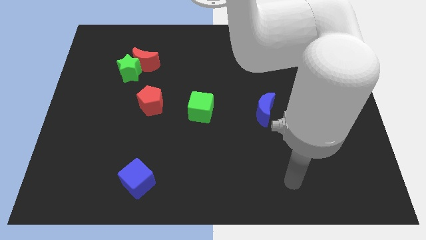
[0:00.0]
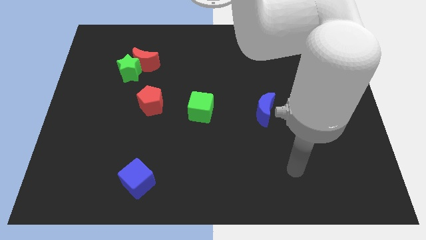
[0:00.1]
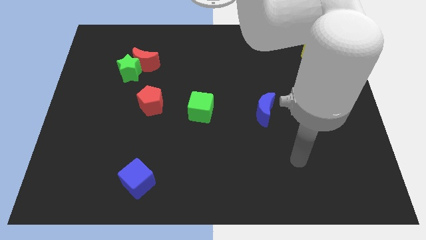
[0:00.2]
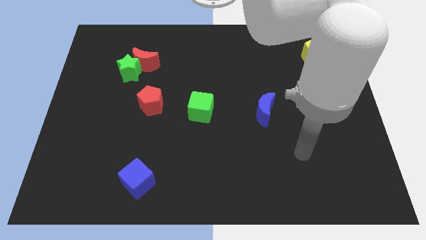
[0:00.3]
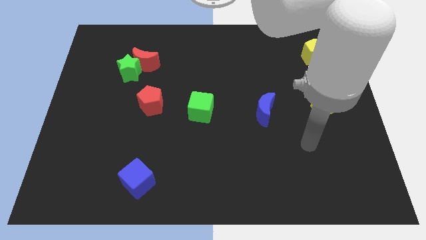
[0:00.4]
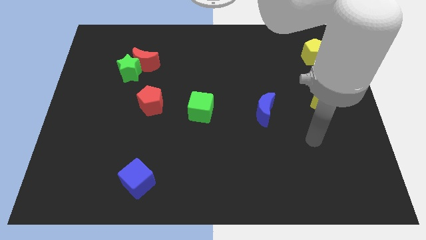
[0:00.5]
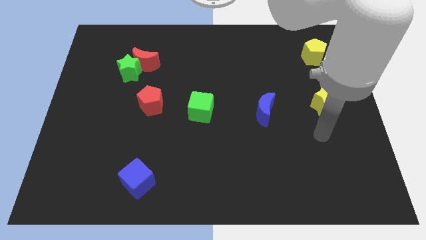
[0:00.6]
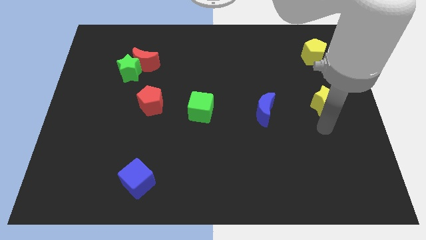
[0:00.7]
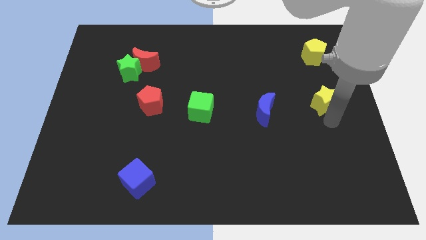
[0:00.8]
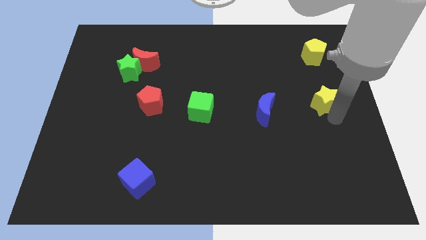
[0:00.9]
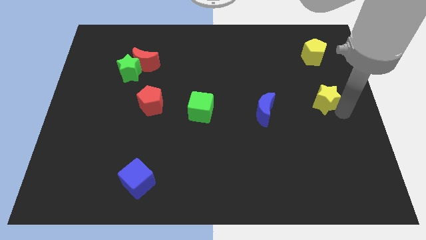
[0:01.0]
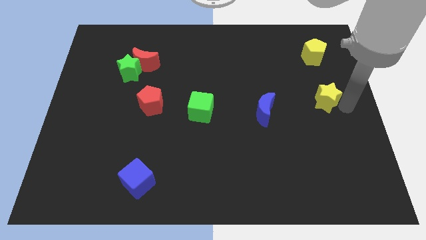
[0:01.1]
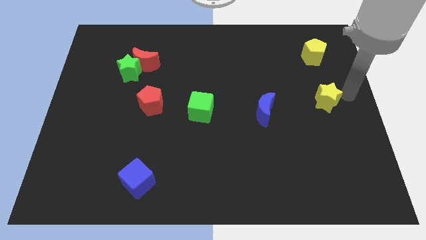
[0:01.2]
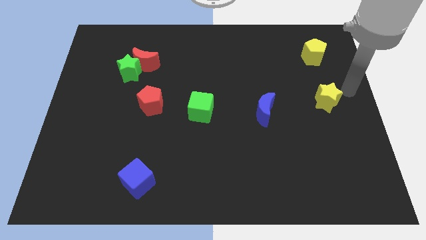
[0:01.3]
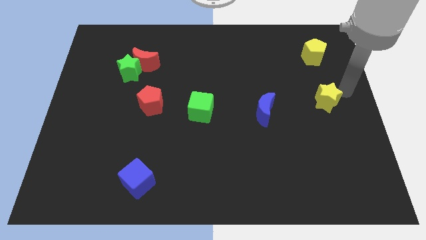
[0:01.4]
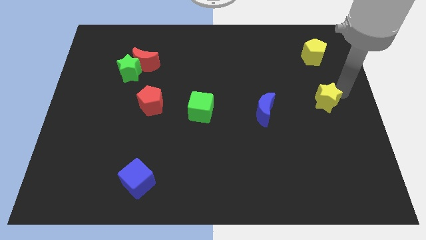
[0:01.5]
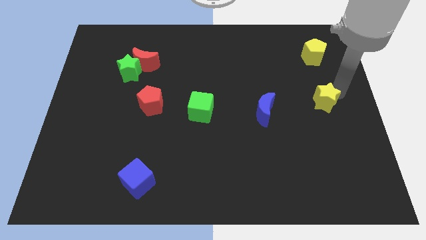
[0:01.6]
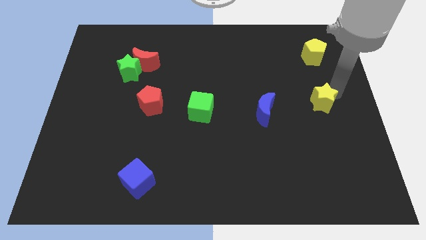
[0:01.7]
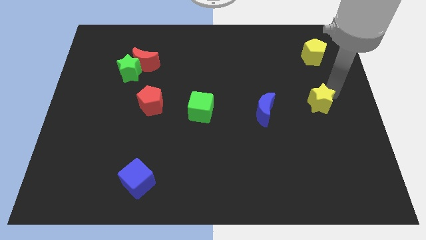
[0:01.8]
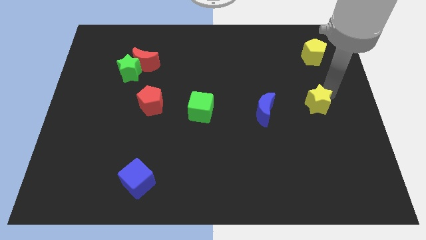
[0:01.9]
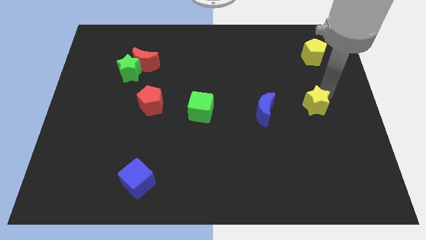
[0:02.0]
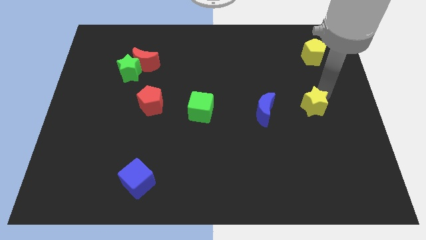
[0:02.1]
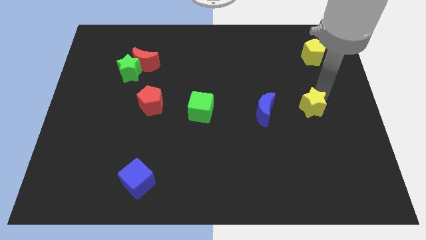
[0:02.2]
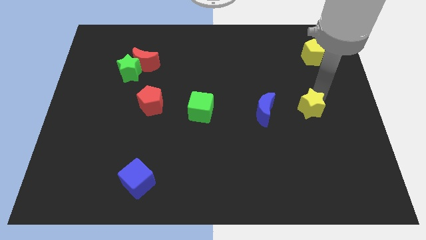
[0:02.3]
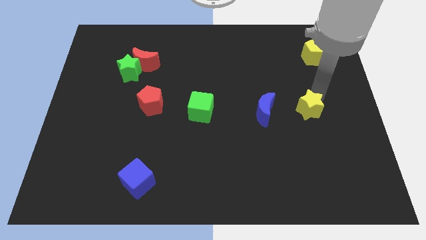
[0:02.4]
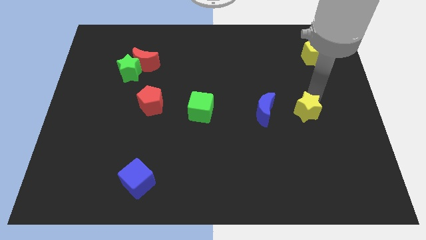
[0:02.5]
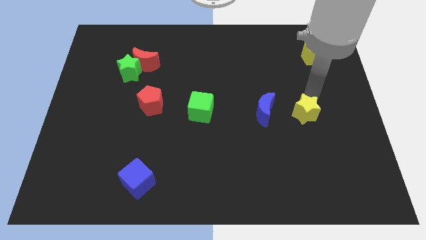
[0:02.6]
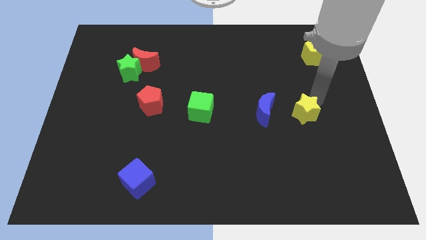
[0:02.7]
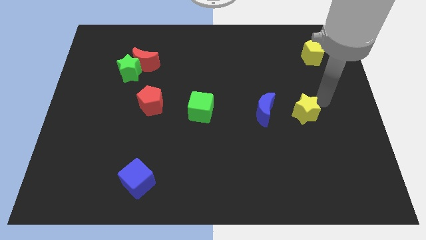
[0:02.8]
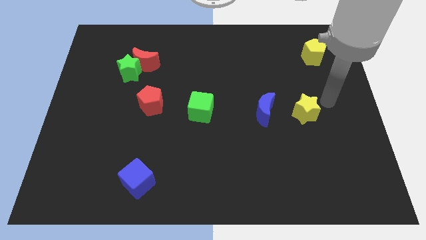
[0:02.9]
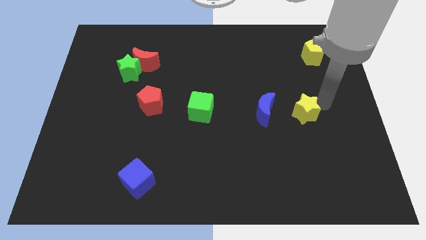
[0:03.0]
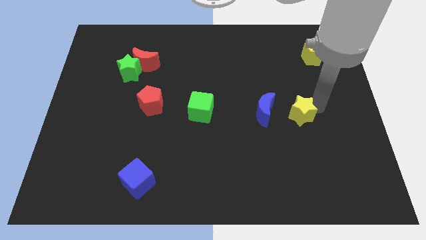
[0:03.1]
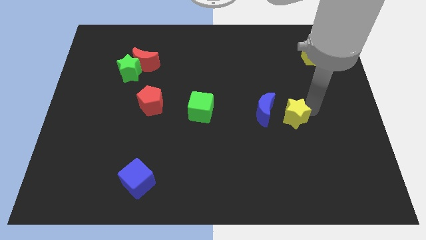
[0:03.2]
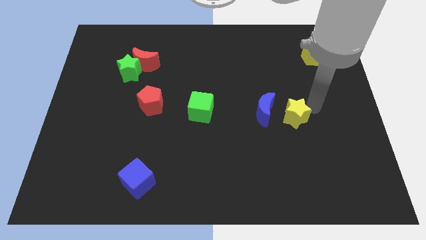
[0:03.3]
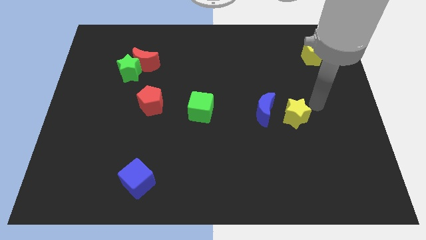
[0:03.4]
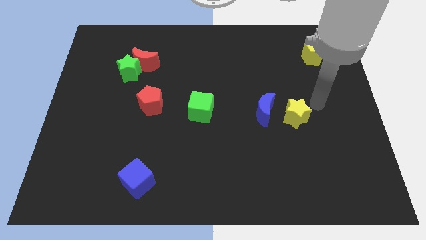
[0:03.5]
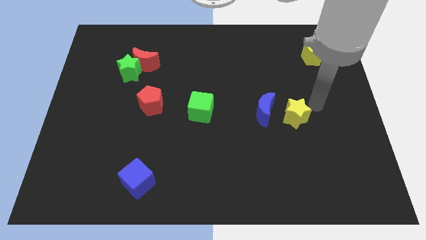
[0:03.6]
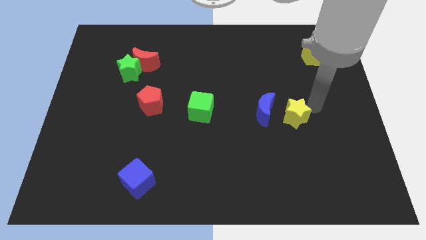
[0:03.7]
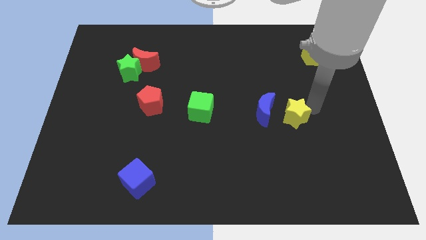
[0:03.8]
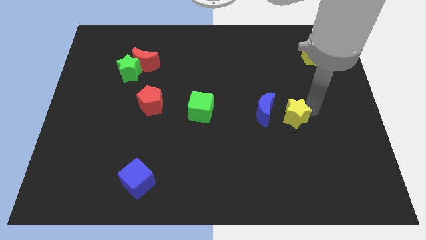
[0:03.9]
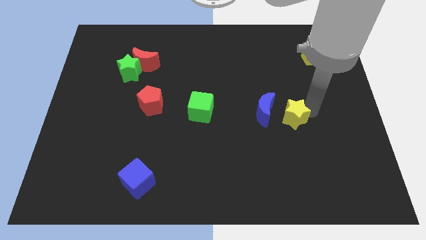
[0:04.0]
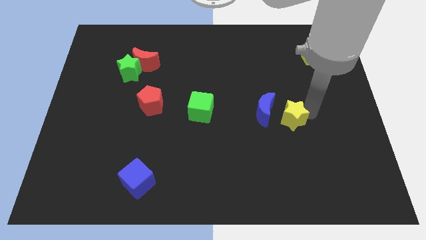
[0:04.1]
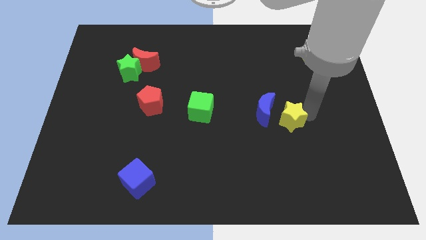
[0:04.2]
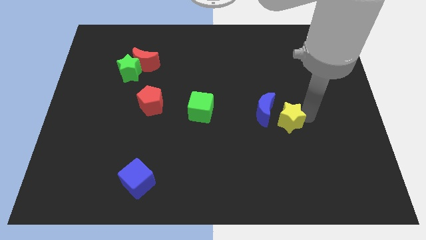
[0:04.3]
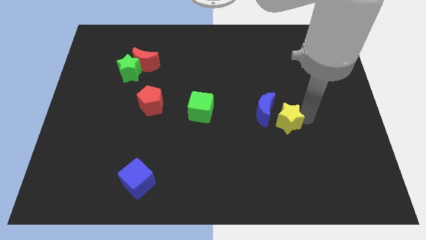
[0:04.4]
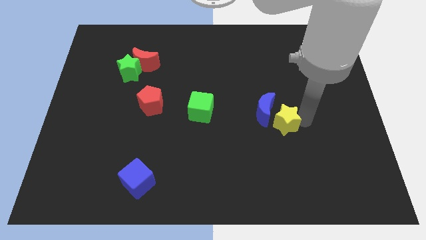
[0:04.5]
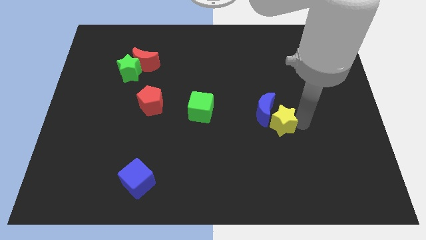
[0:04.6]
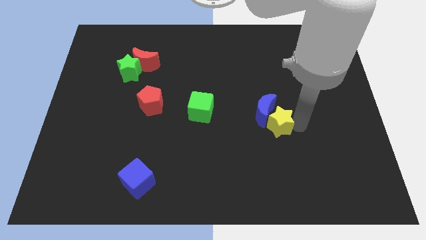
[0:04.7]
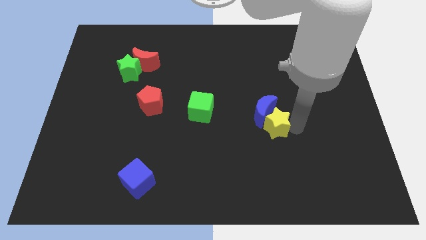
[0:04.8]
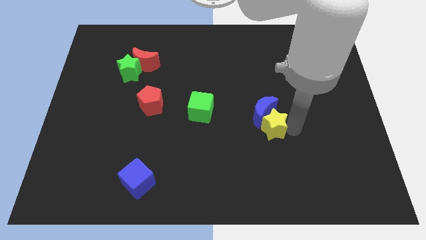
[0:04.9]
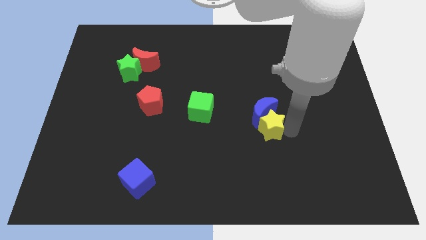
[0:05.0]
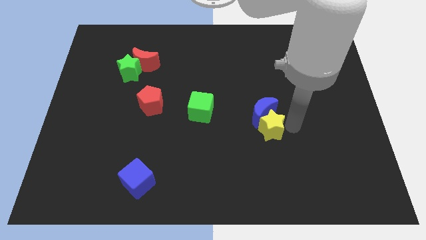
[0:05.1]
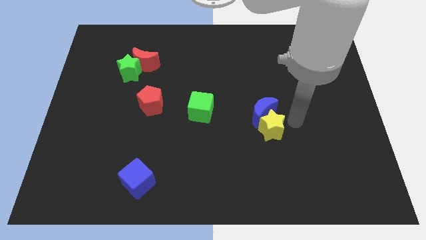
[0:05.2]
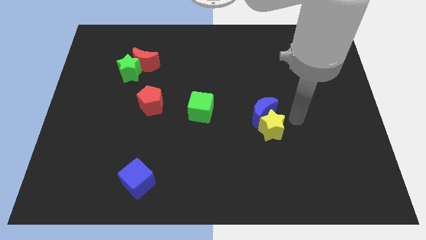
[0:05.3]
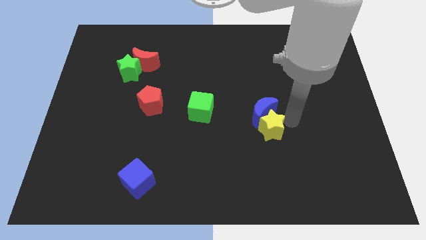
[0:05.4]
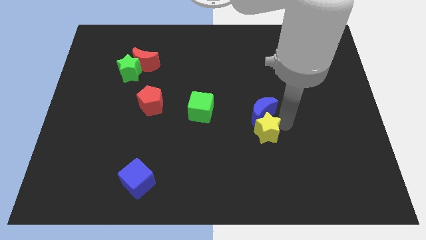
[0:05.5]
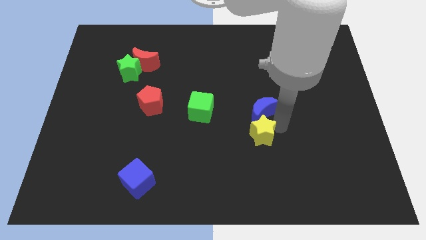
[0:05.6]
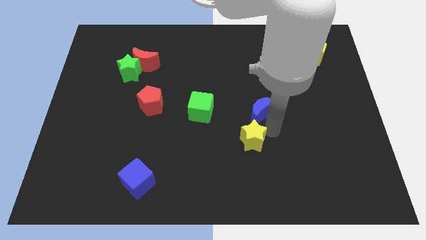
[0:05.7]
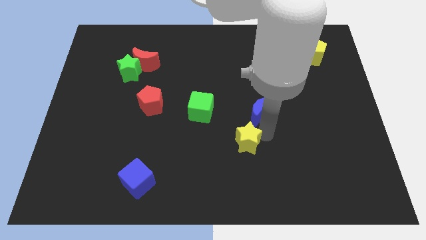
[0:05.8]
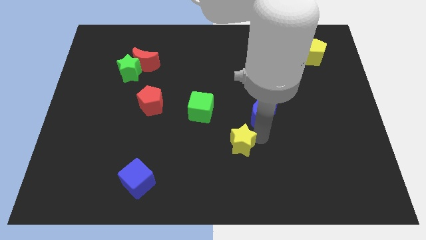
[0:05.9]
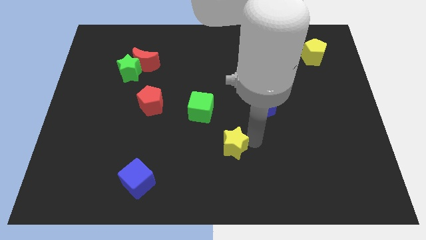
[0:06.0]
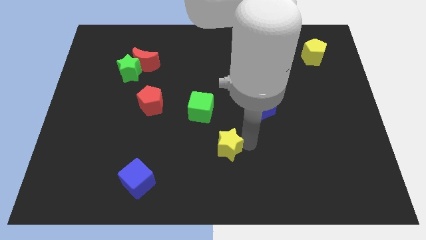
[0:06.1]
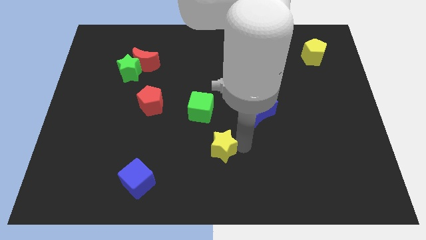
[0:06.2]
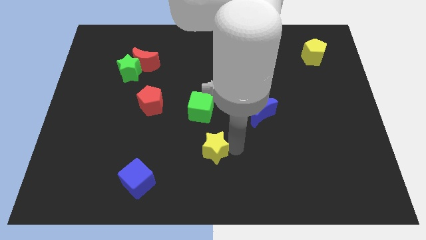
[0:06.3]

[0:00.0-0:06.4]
move the yellow star to the bottom side of the green cube

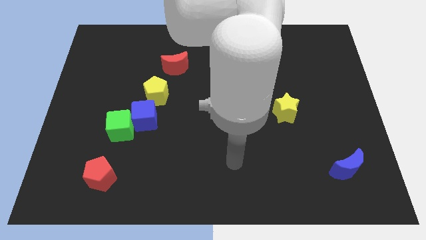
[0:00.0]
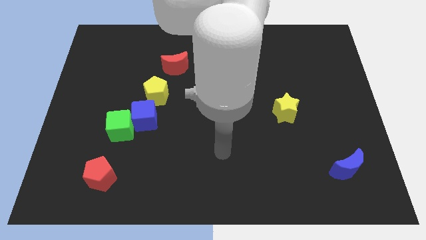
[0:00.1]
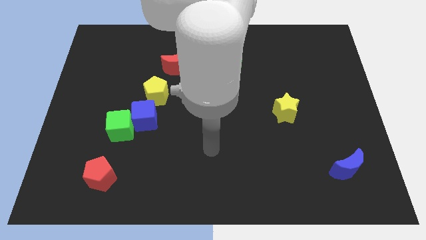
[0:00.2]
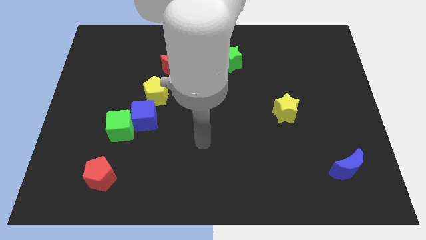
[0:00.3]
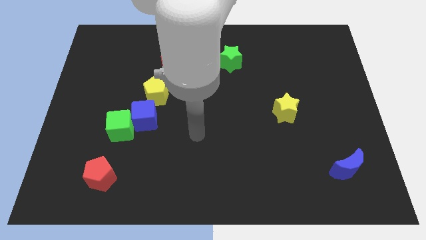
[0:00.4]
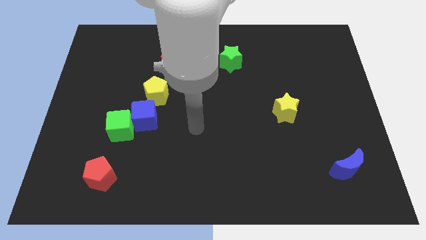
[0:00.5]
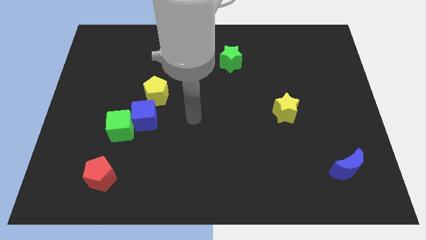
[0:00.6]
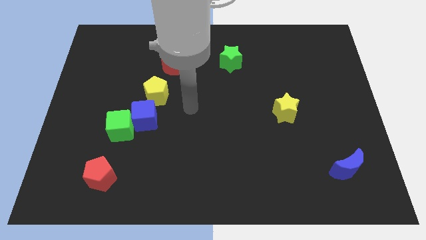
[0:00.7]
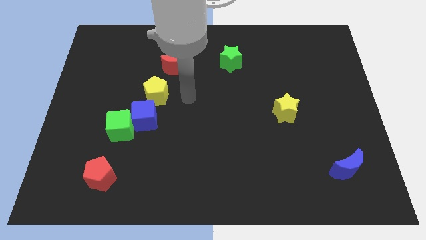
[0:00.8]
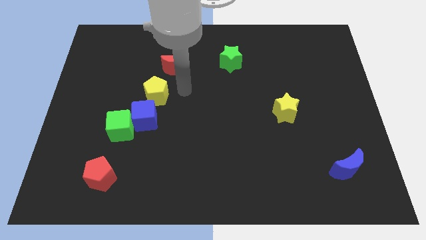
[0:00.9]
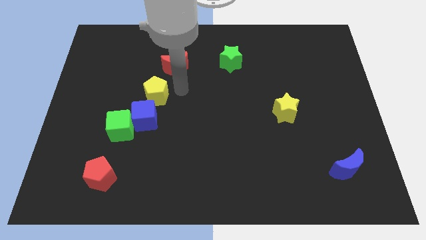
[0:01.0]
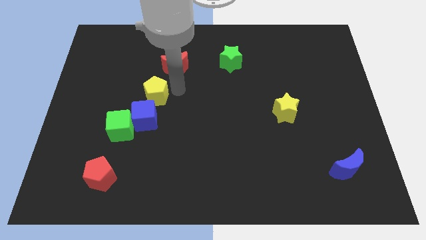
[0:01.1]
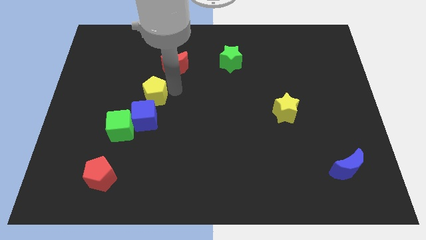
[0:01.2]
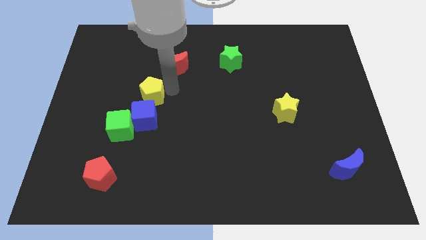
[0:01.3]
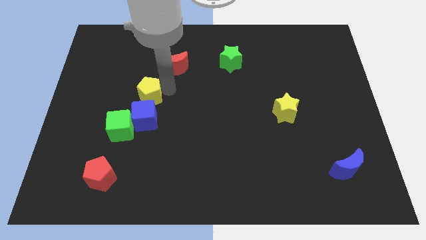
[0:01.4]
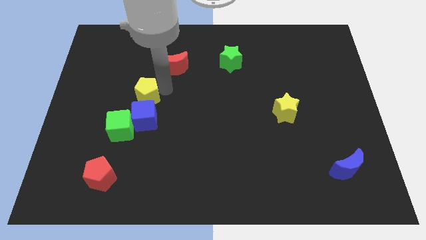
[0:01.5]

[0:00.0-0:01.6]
move the yellow pentagon diagonally up and to the left of the blue cube
